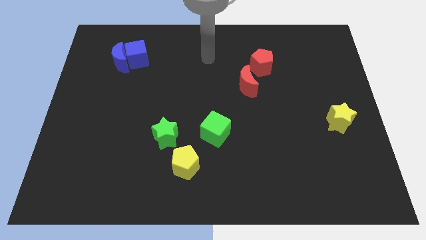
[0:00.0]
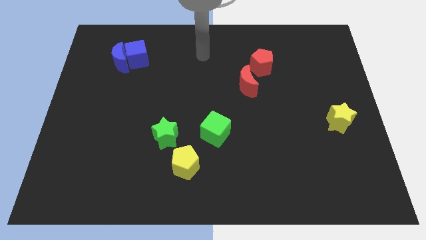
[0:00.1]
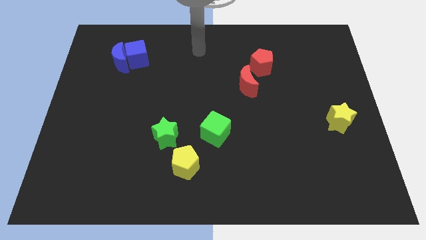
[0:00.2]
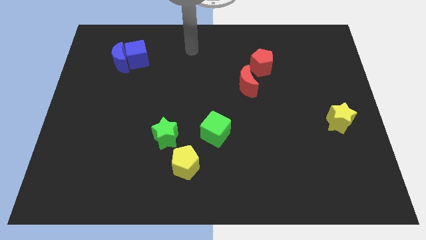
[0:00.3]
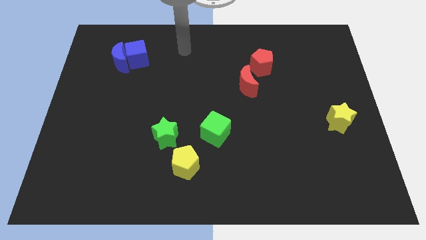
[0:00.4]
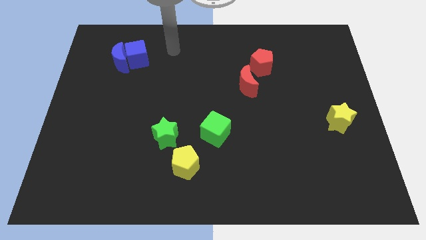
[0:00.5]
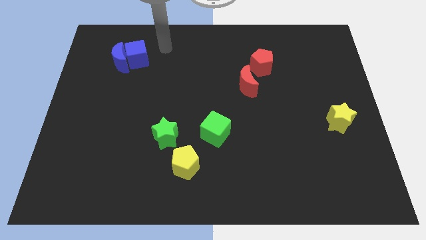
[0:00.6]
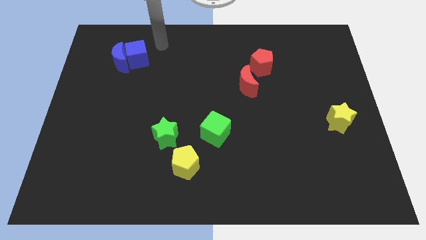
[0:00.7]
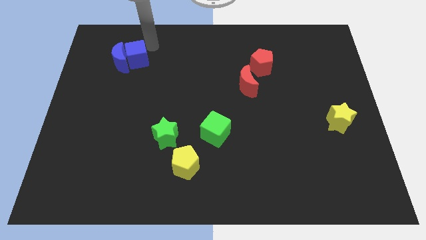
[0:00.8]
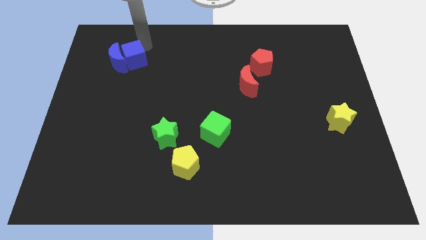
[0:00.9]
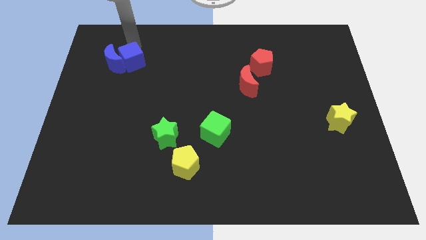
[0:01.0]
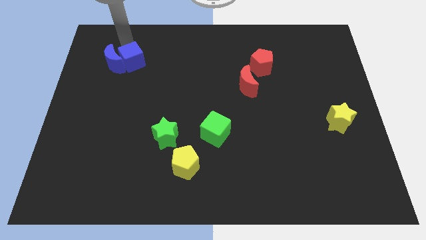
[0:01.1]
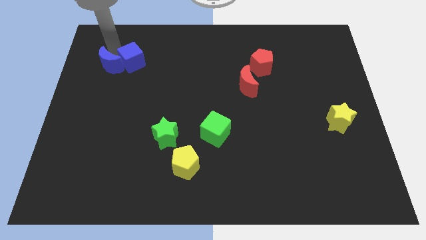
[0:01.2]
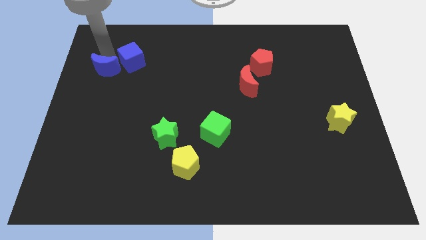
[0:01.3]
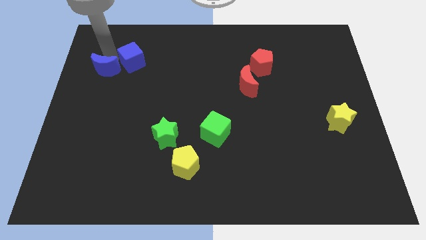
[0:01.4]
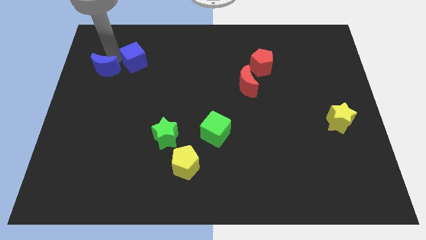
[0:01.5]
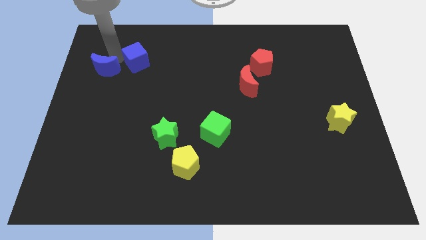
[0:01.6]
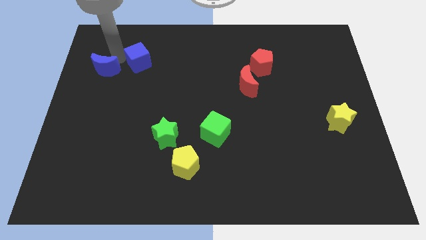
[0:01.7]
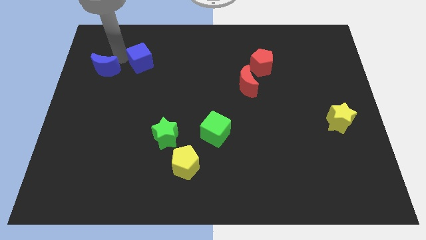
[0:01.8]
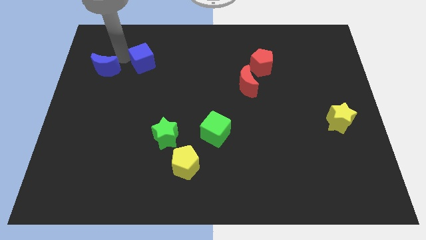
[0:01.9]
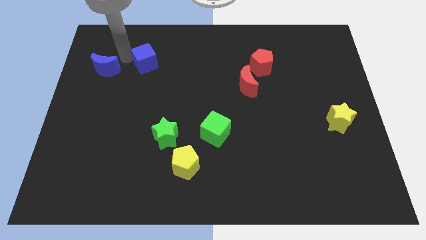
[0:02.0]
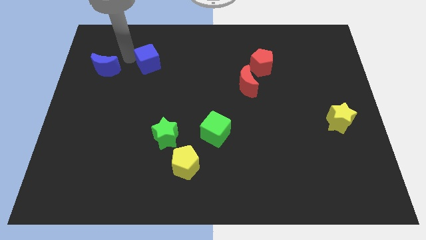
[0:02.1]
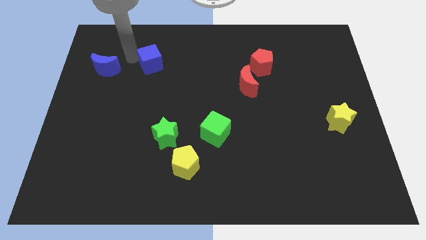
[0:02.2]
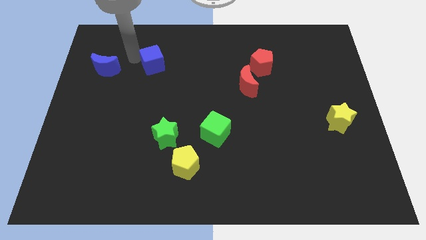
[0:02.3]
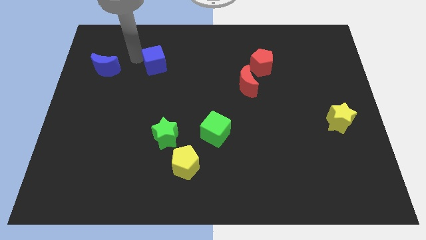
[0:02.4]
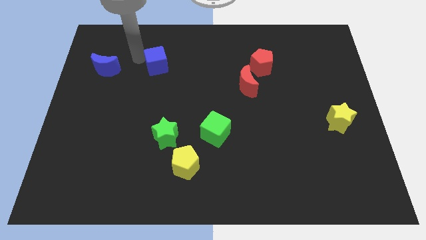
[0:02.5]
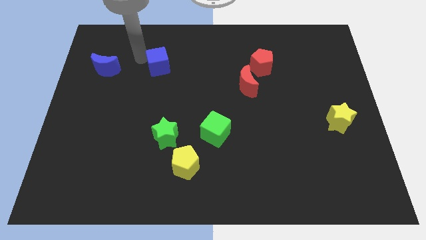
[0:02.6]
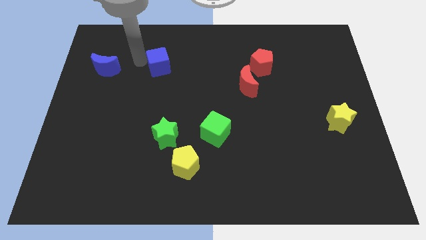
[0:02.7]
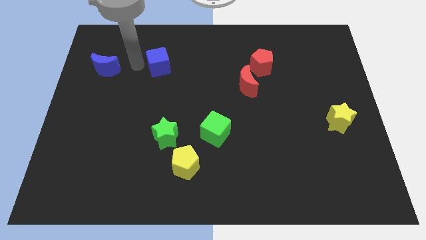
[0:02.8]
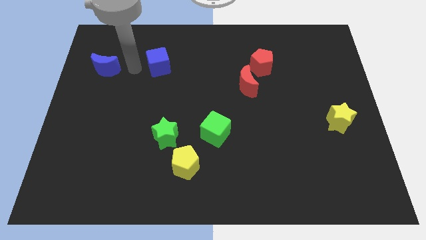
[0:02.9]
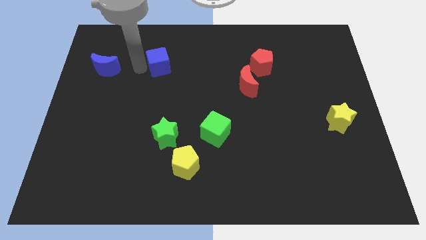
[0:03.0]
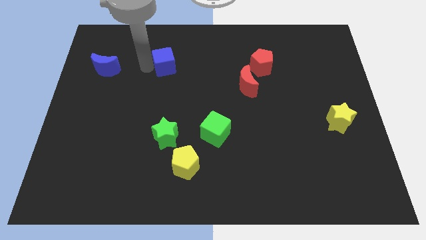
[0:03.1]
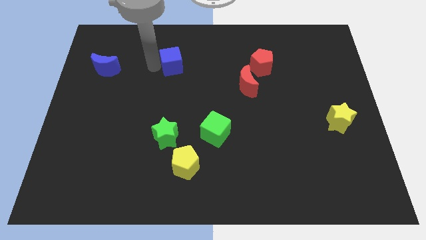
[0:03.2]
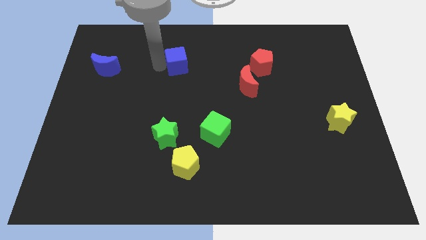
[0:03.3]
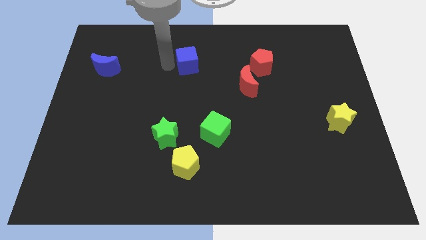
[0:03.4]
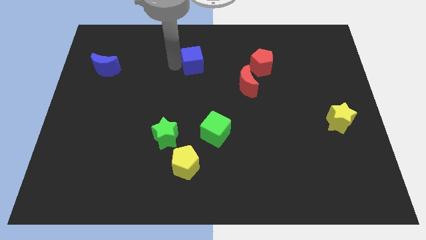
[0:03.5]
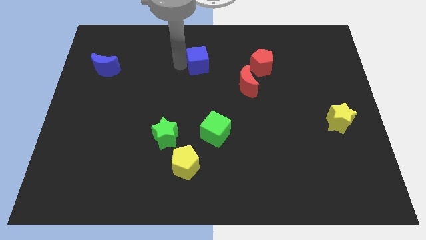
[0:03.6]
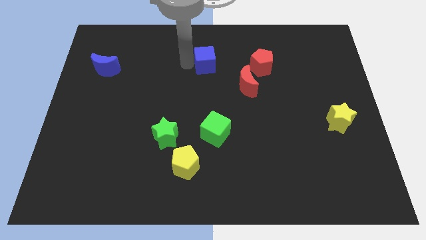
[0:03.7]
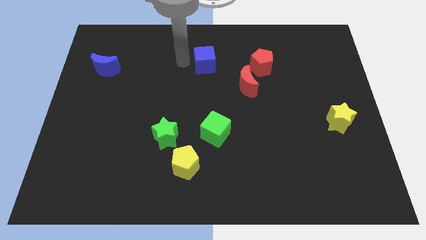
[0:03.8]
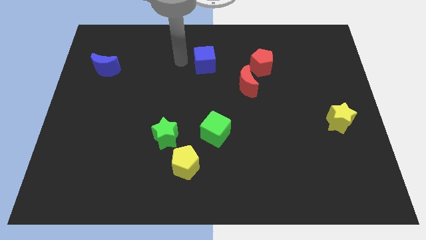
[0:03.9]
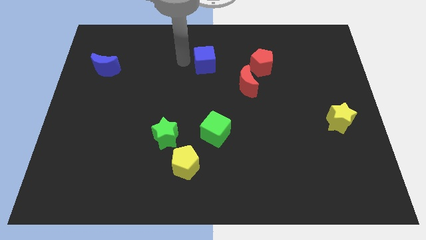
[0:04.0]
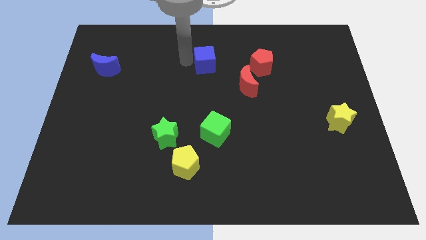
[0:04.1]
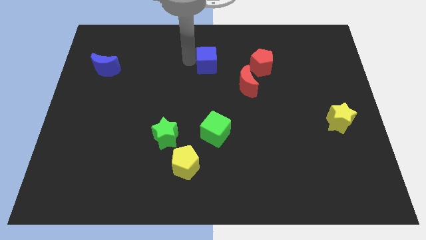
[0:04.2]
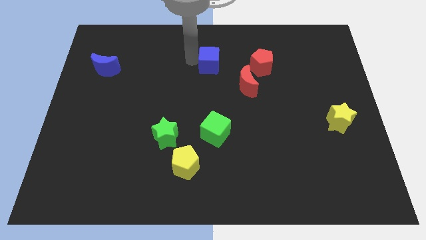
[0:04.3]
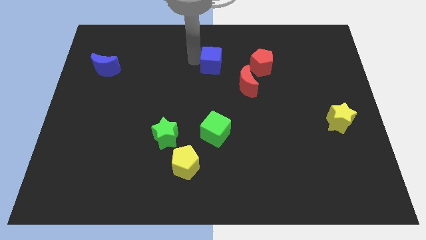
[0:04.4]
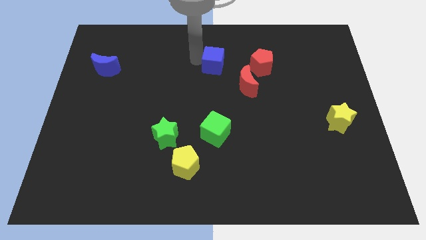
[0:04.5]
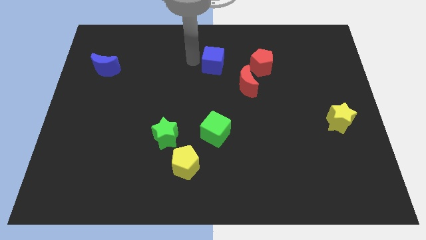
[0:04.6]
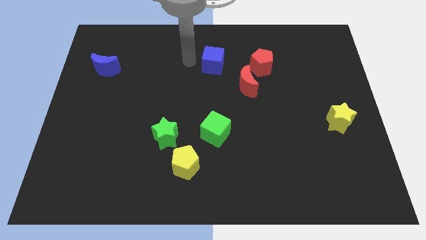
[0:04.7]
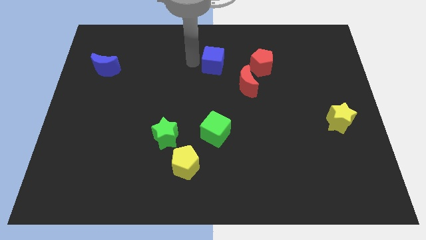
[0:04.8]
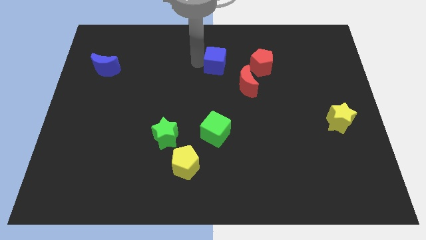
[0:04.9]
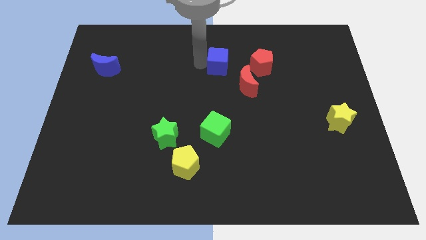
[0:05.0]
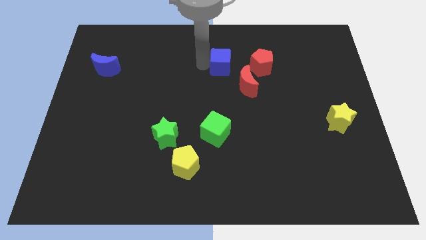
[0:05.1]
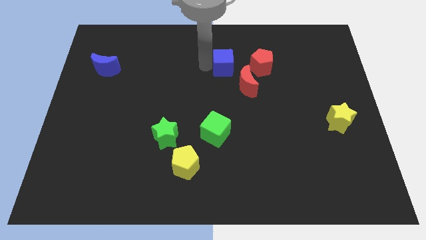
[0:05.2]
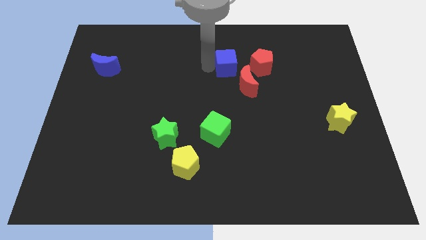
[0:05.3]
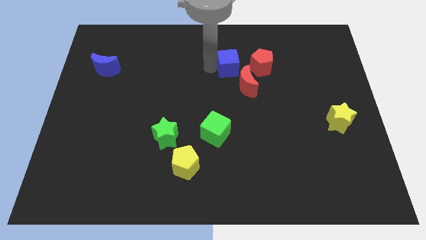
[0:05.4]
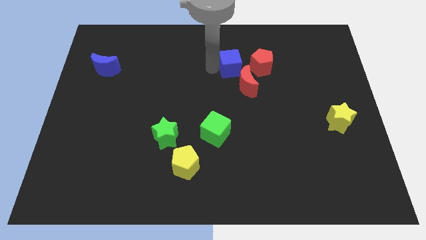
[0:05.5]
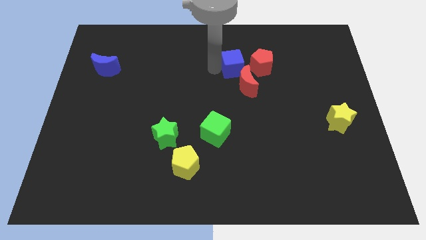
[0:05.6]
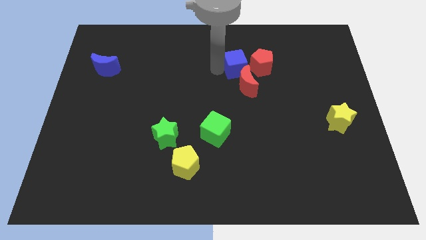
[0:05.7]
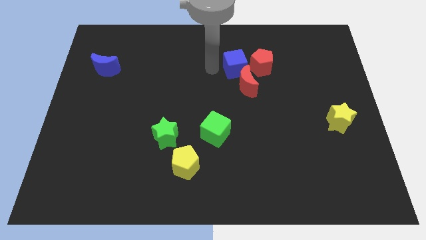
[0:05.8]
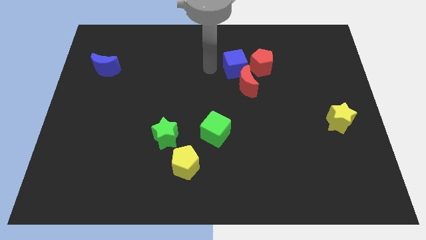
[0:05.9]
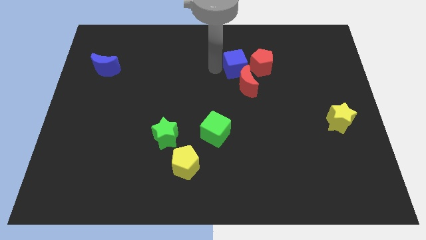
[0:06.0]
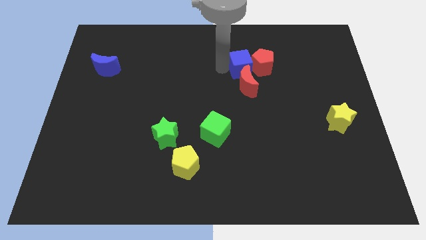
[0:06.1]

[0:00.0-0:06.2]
put the blue cube to the red pentagon

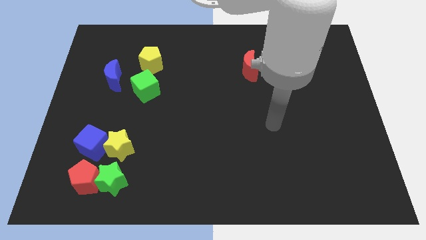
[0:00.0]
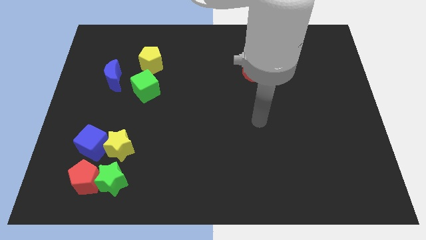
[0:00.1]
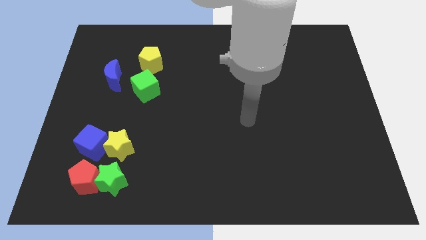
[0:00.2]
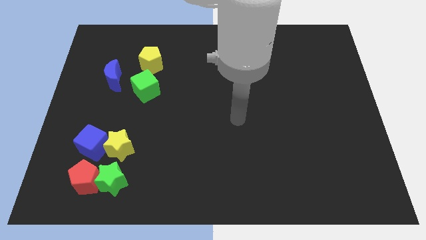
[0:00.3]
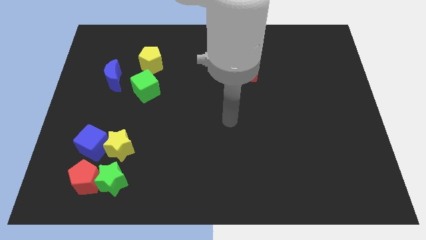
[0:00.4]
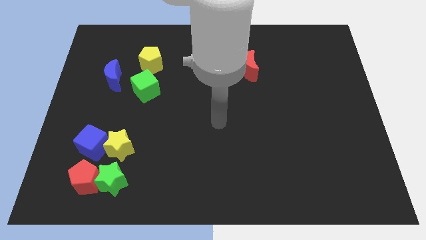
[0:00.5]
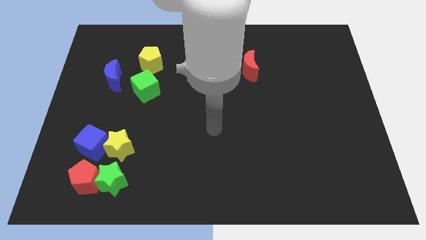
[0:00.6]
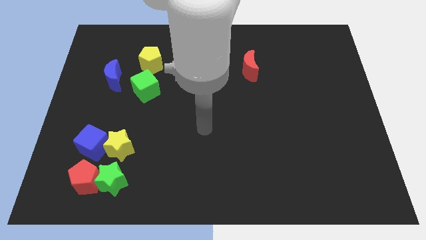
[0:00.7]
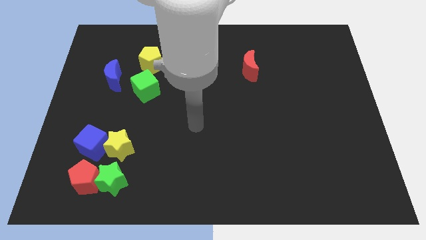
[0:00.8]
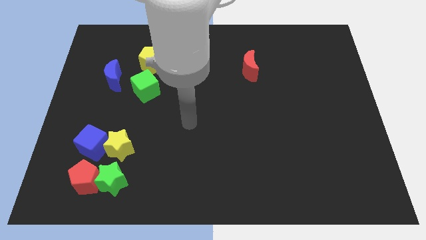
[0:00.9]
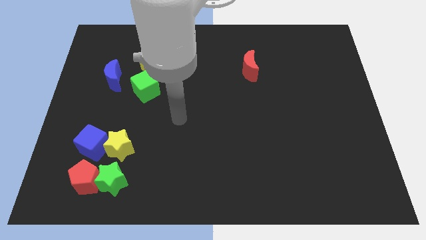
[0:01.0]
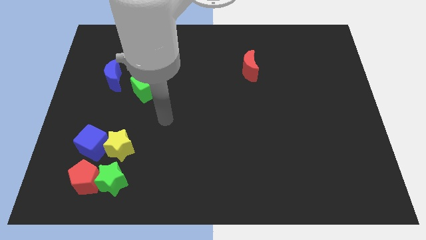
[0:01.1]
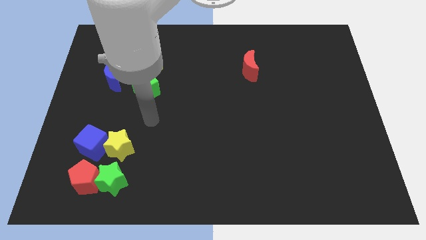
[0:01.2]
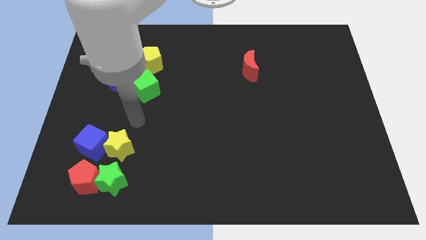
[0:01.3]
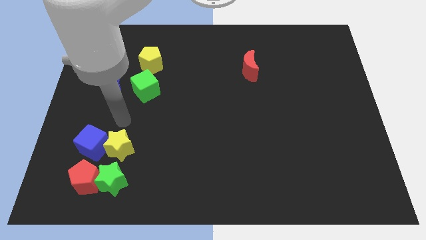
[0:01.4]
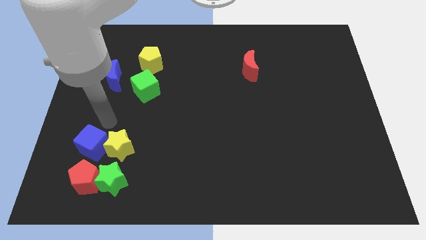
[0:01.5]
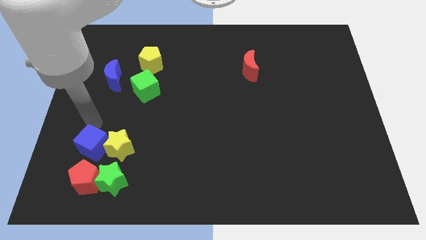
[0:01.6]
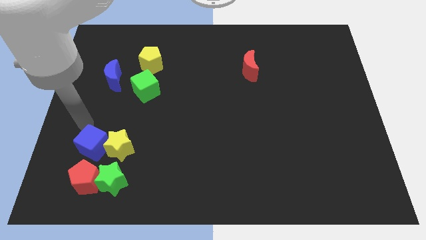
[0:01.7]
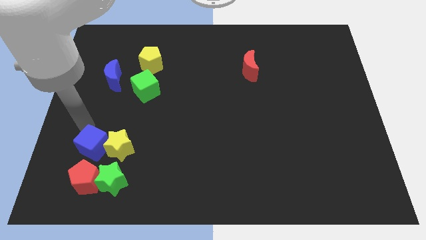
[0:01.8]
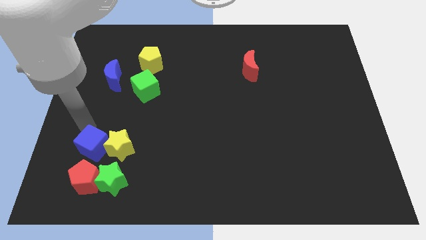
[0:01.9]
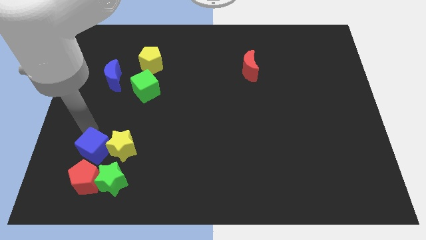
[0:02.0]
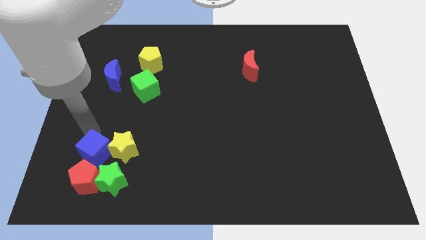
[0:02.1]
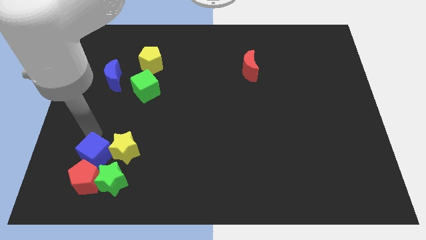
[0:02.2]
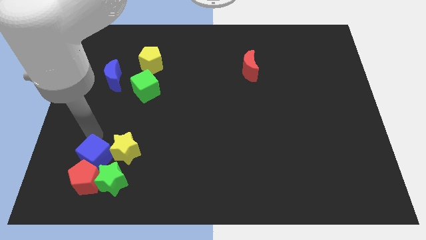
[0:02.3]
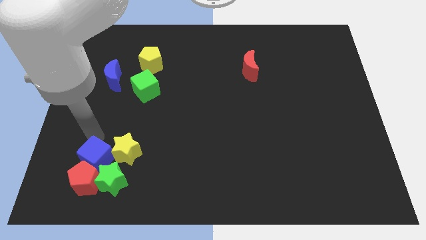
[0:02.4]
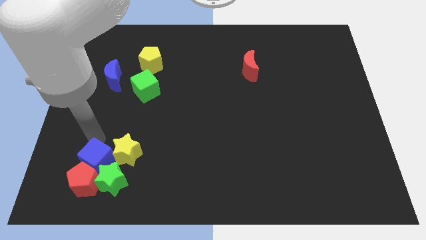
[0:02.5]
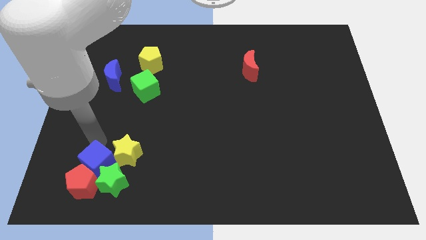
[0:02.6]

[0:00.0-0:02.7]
push the blue cube next to the green star
